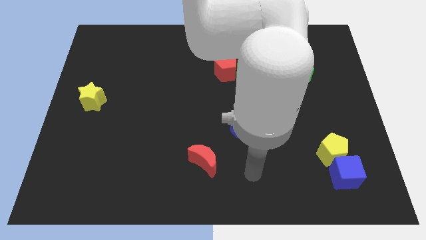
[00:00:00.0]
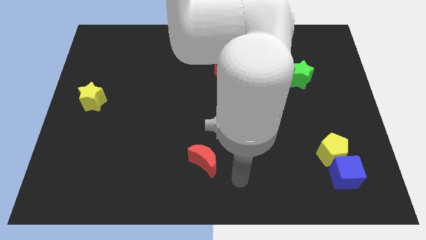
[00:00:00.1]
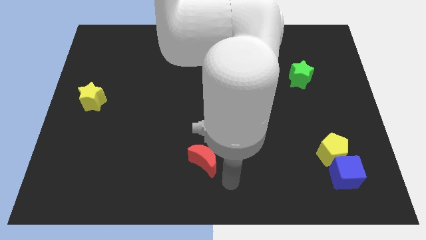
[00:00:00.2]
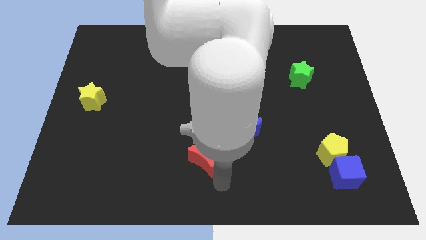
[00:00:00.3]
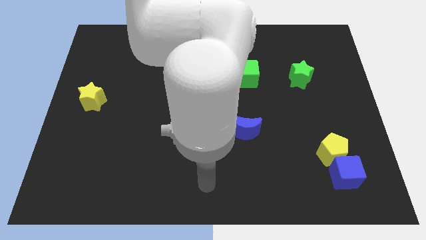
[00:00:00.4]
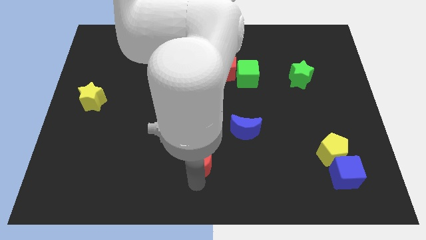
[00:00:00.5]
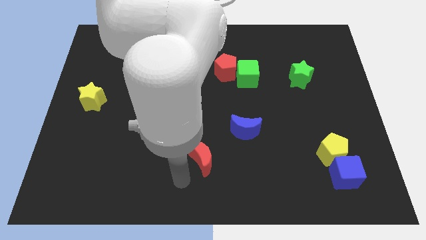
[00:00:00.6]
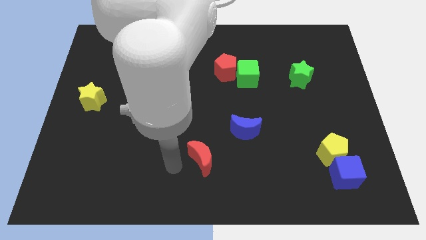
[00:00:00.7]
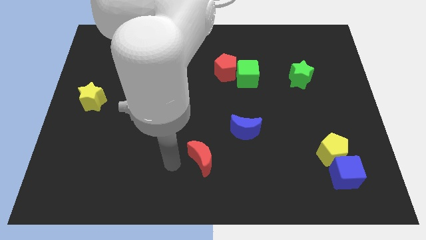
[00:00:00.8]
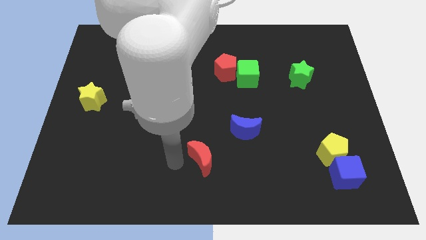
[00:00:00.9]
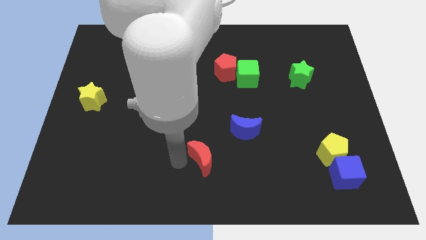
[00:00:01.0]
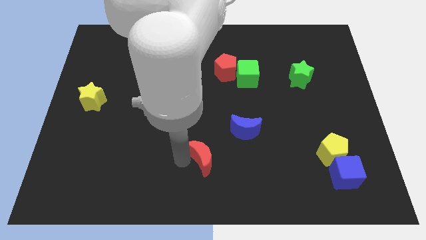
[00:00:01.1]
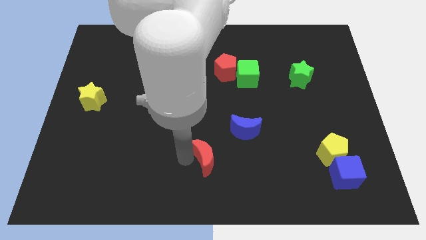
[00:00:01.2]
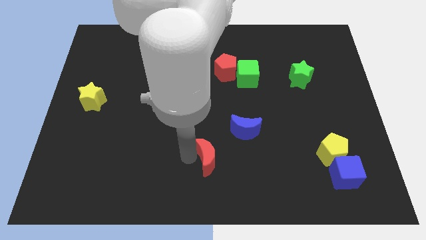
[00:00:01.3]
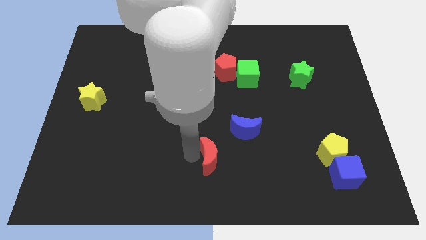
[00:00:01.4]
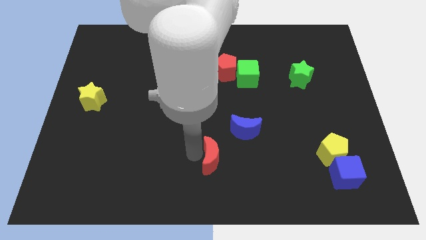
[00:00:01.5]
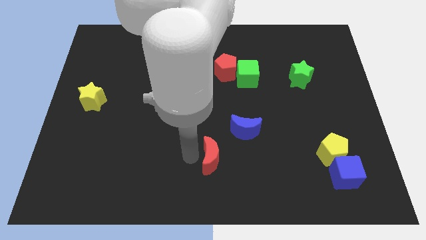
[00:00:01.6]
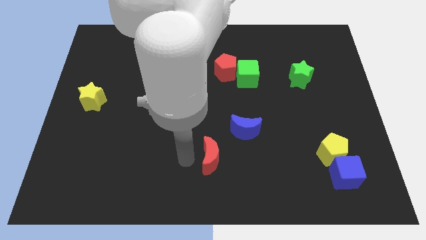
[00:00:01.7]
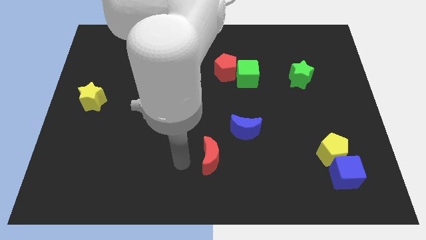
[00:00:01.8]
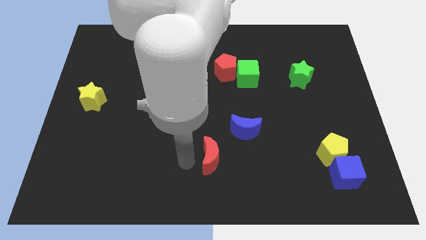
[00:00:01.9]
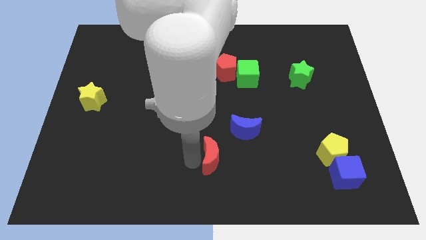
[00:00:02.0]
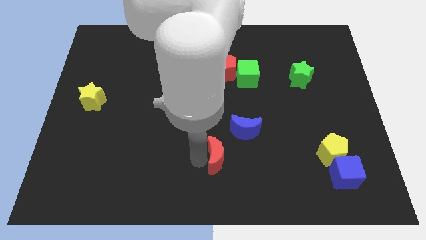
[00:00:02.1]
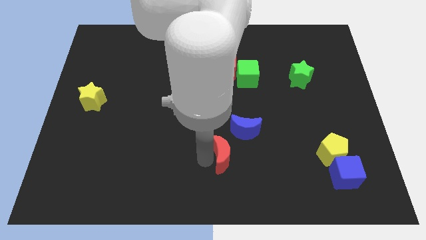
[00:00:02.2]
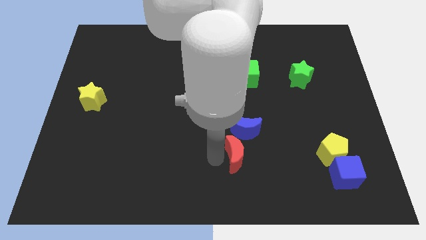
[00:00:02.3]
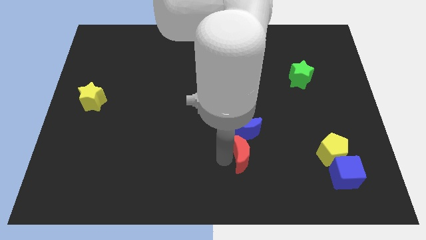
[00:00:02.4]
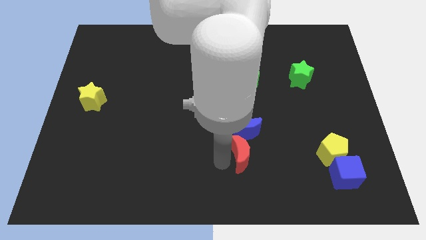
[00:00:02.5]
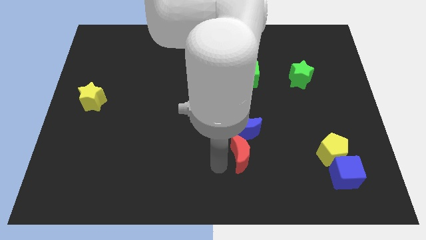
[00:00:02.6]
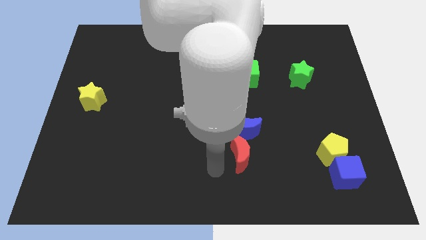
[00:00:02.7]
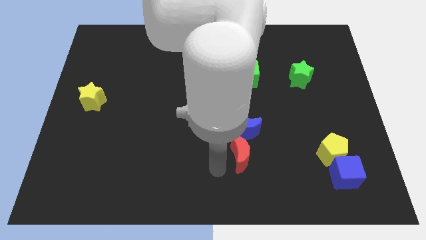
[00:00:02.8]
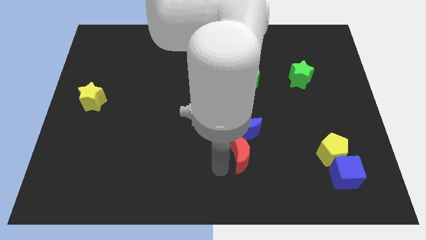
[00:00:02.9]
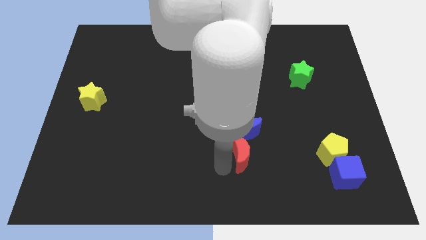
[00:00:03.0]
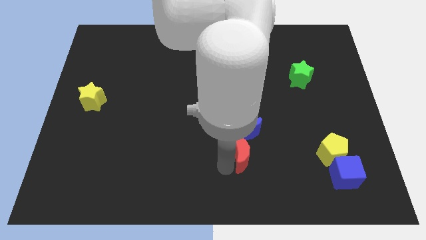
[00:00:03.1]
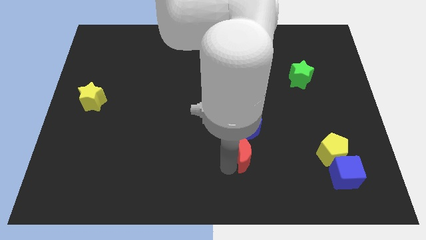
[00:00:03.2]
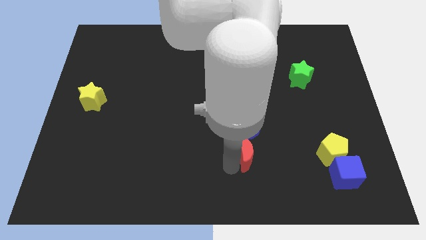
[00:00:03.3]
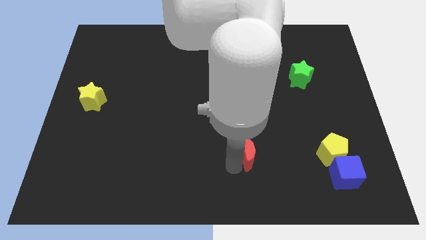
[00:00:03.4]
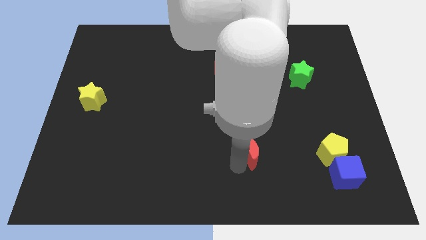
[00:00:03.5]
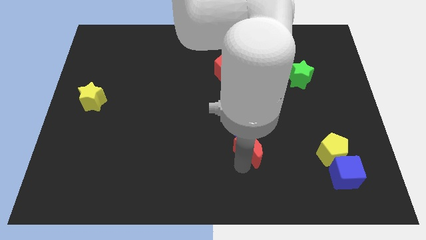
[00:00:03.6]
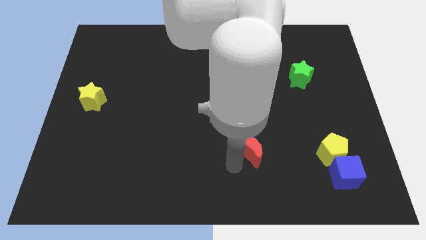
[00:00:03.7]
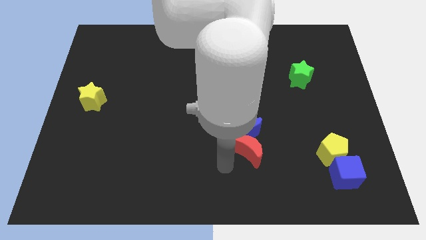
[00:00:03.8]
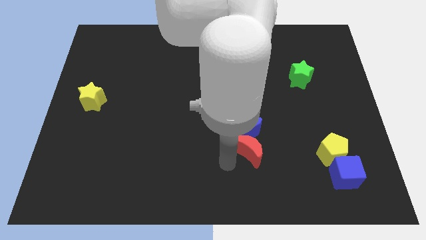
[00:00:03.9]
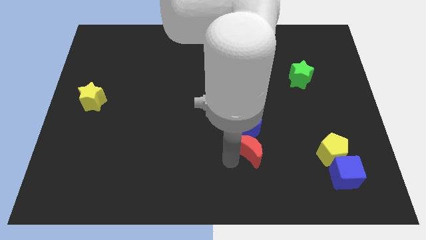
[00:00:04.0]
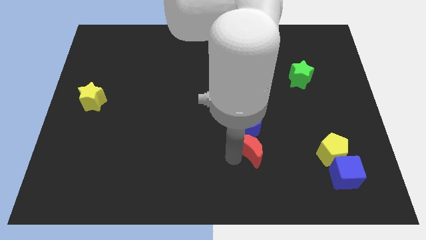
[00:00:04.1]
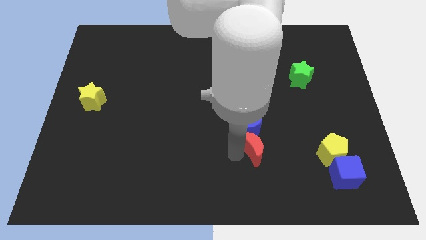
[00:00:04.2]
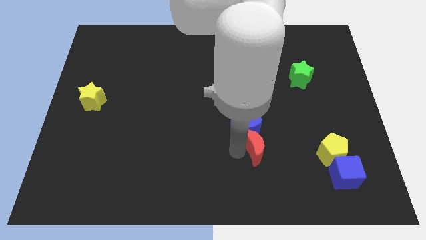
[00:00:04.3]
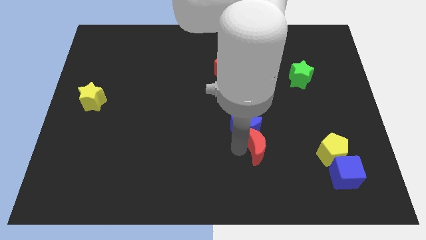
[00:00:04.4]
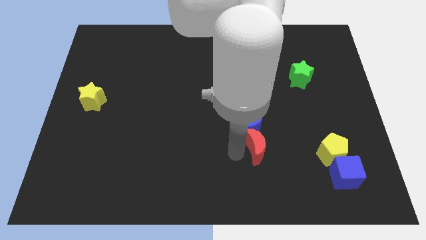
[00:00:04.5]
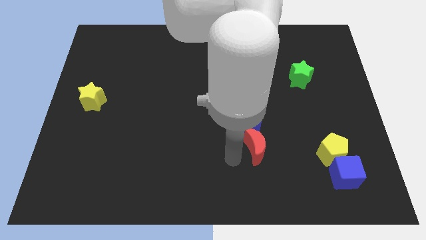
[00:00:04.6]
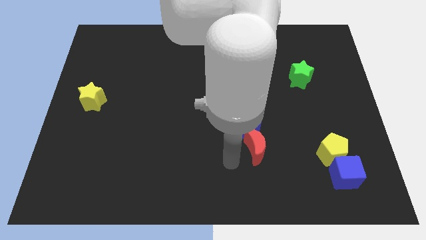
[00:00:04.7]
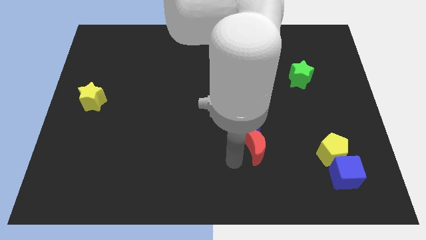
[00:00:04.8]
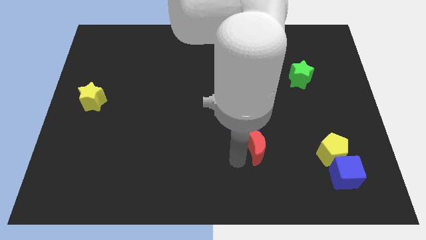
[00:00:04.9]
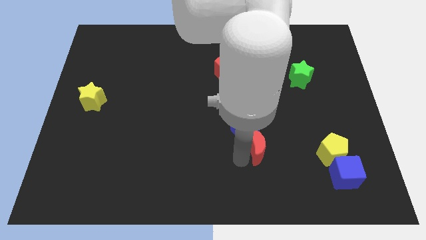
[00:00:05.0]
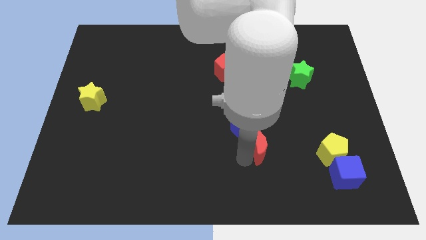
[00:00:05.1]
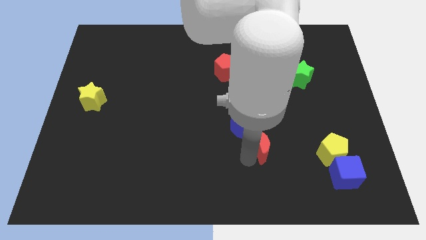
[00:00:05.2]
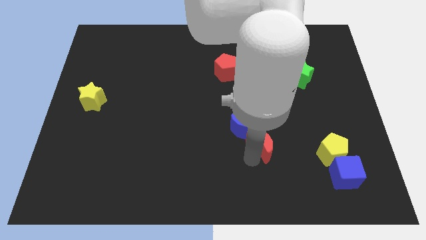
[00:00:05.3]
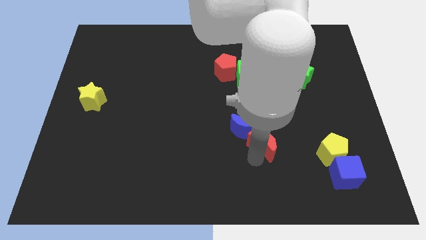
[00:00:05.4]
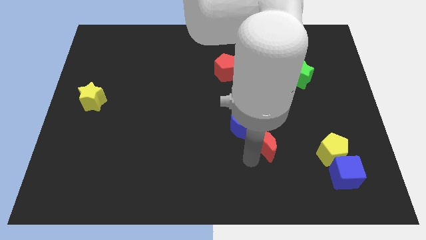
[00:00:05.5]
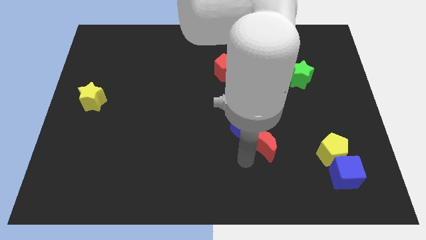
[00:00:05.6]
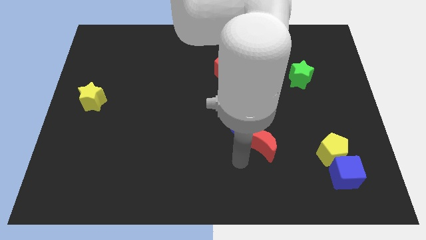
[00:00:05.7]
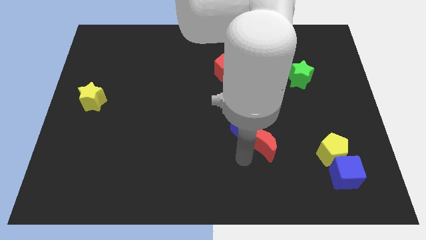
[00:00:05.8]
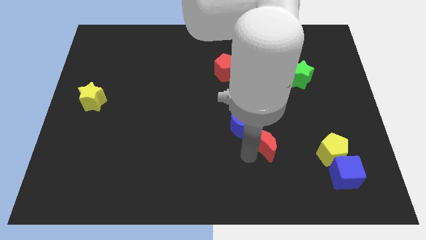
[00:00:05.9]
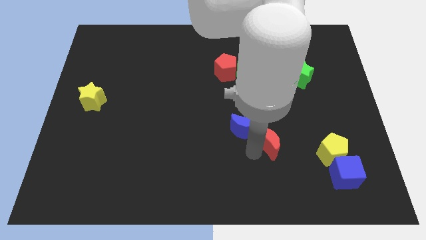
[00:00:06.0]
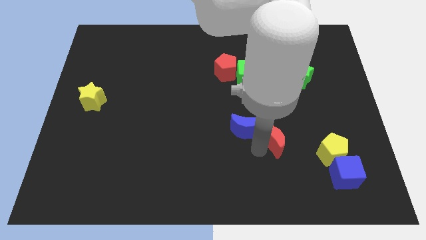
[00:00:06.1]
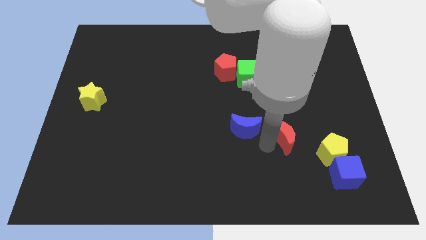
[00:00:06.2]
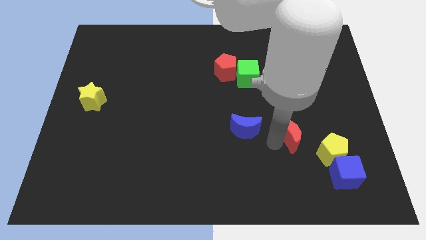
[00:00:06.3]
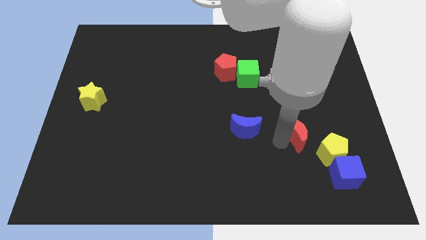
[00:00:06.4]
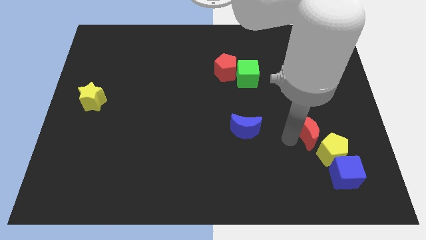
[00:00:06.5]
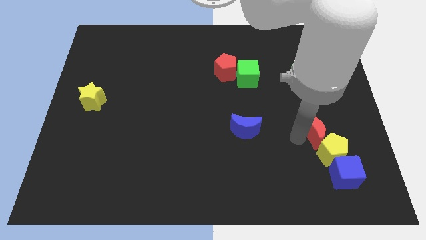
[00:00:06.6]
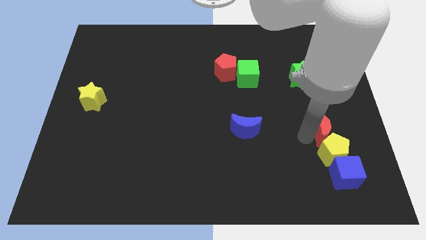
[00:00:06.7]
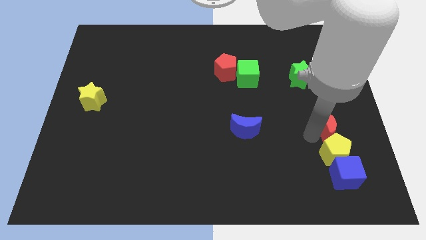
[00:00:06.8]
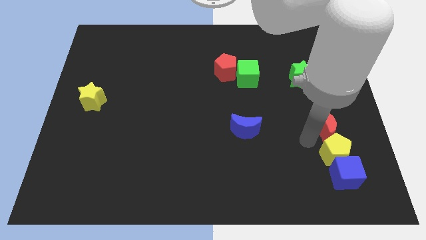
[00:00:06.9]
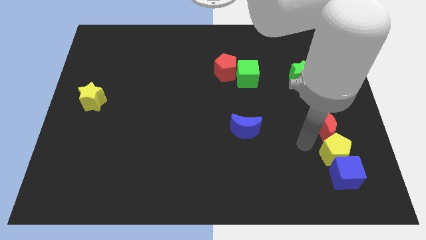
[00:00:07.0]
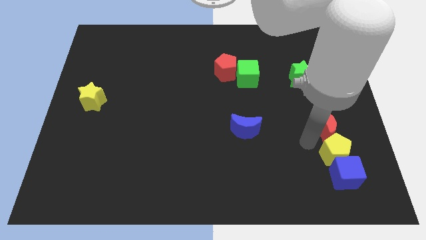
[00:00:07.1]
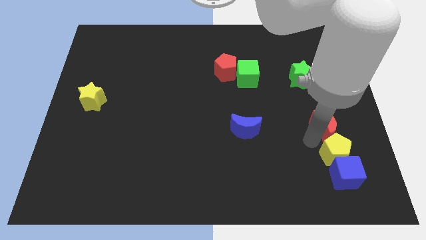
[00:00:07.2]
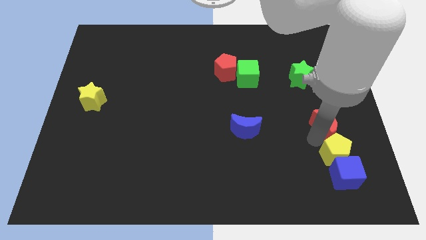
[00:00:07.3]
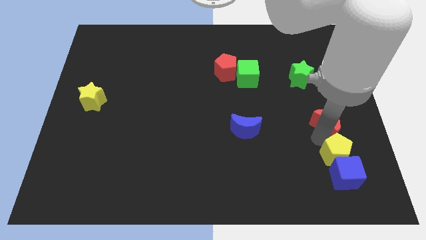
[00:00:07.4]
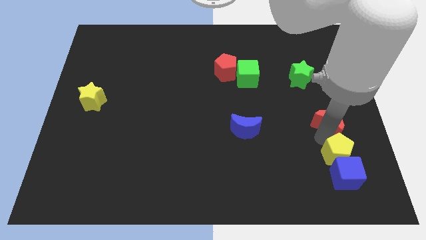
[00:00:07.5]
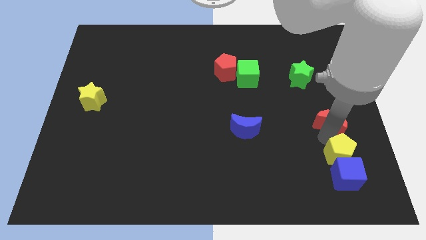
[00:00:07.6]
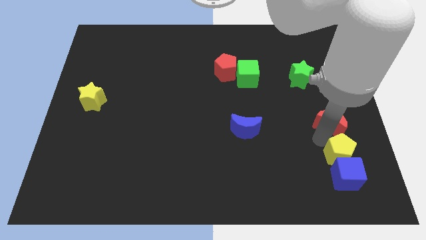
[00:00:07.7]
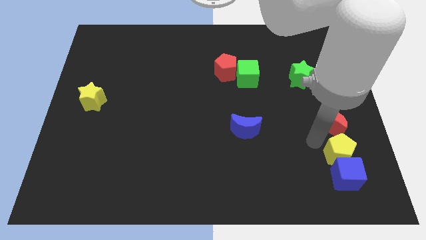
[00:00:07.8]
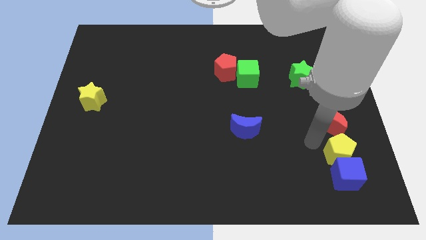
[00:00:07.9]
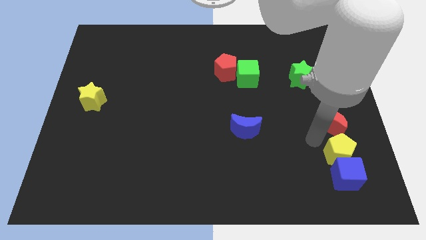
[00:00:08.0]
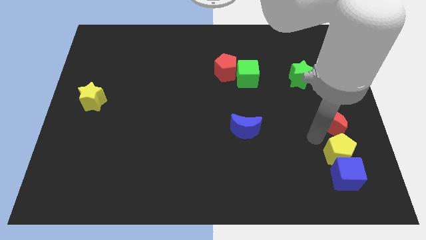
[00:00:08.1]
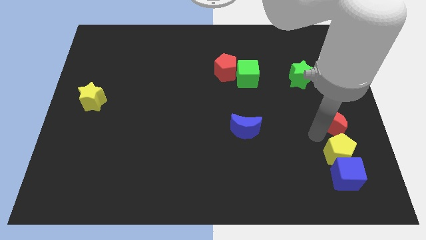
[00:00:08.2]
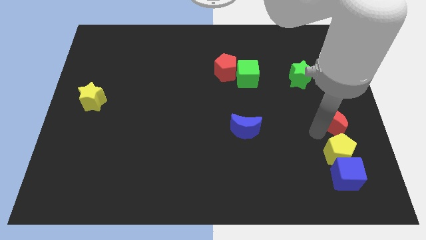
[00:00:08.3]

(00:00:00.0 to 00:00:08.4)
slide the red moon to the right side
